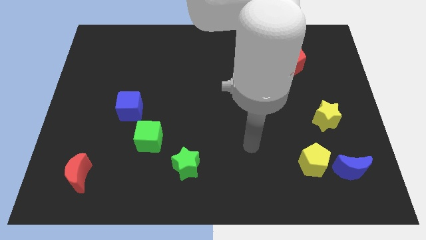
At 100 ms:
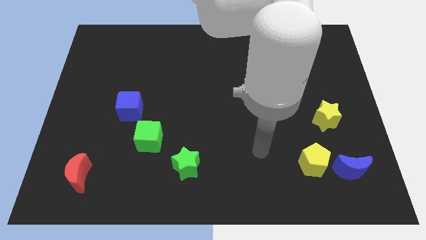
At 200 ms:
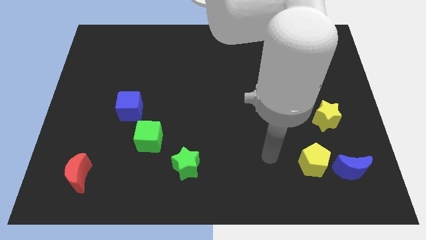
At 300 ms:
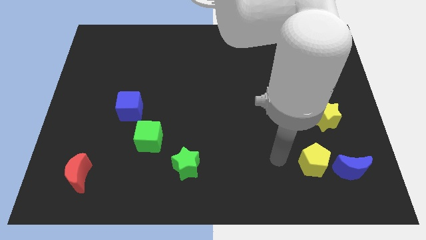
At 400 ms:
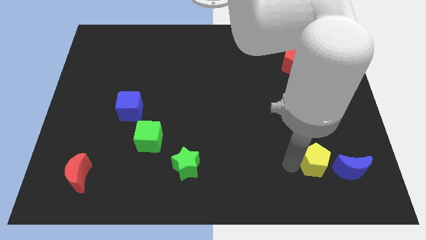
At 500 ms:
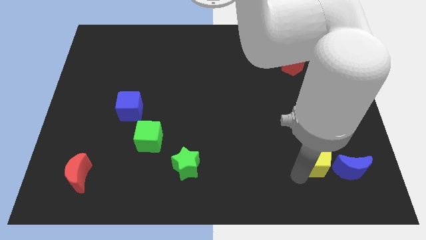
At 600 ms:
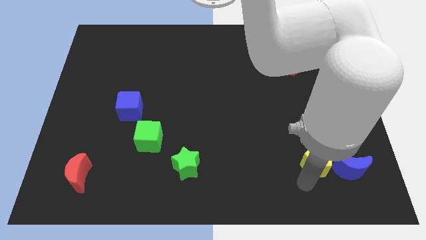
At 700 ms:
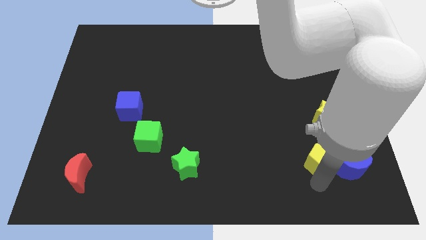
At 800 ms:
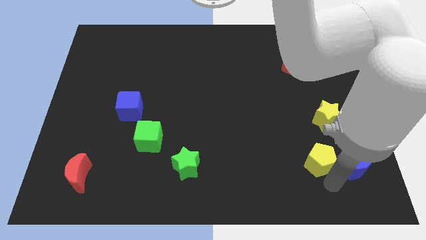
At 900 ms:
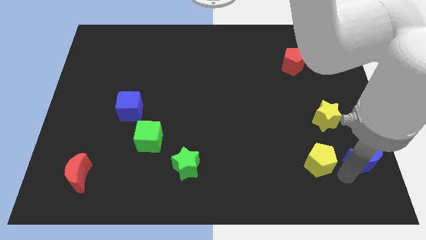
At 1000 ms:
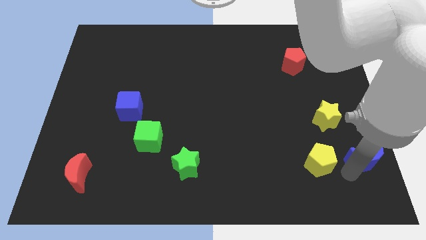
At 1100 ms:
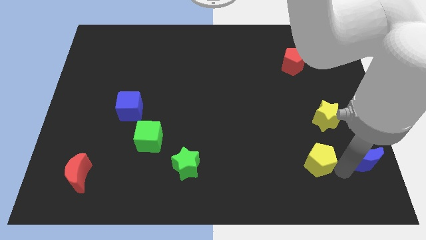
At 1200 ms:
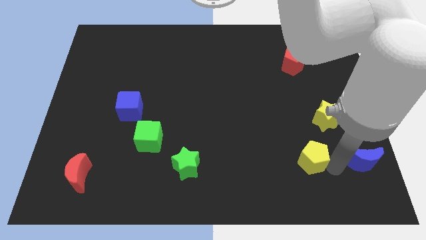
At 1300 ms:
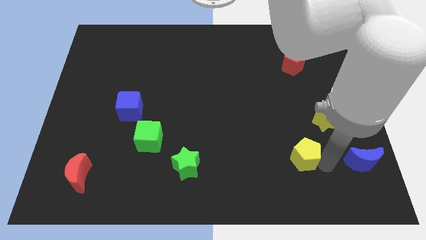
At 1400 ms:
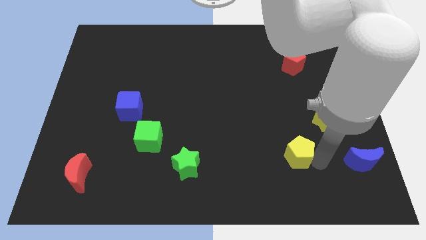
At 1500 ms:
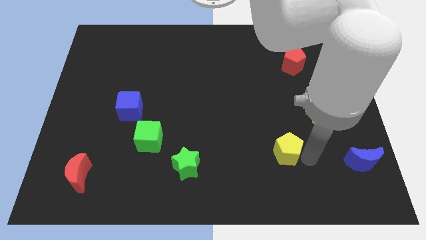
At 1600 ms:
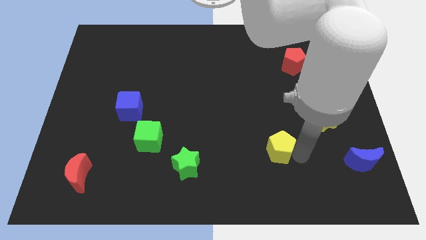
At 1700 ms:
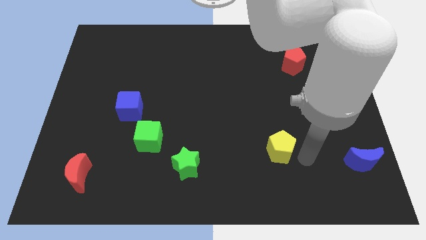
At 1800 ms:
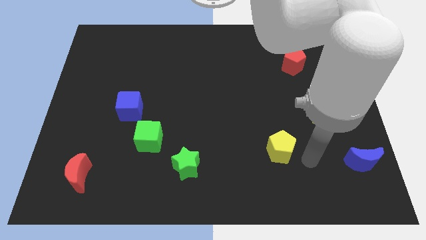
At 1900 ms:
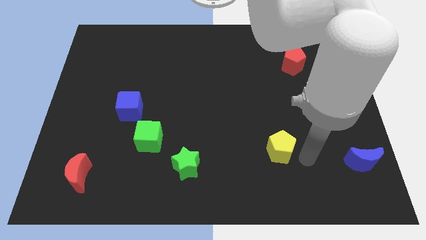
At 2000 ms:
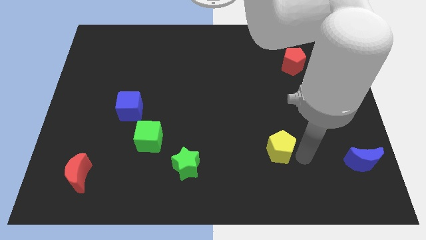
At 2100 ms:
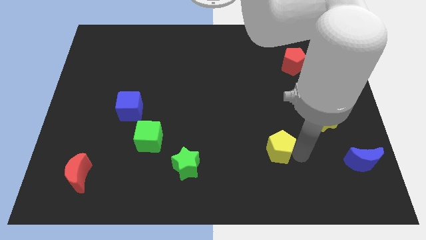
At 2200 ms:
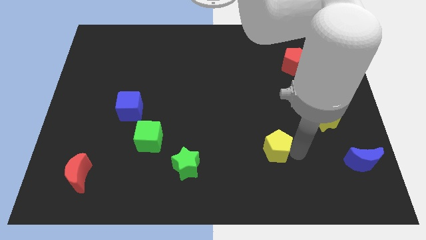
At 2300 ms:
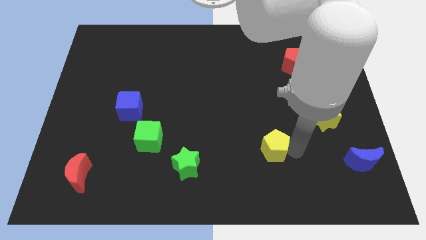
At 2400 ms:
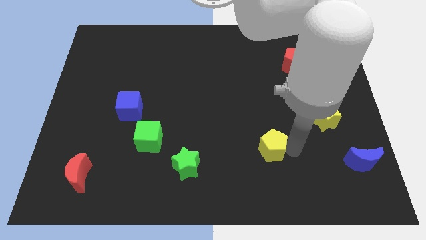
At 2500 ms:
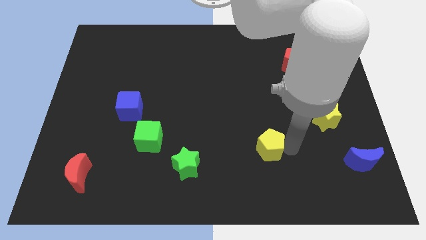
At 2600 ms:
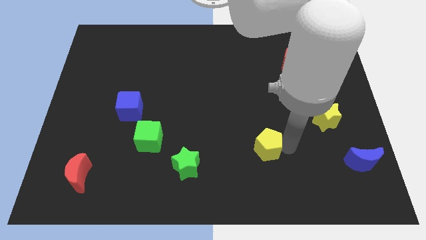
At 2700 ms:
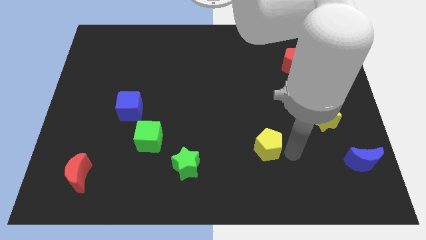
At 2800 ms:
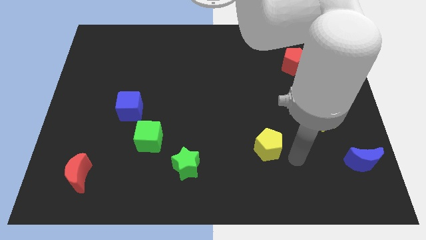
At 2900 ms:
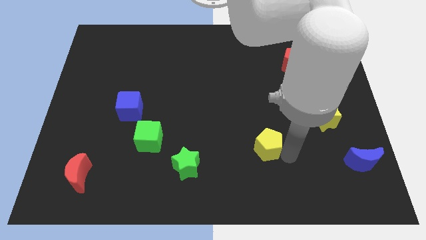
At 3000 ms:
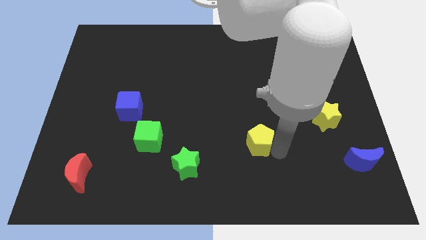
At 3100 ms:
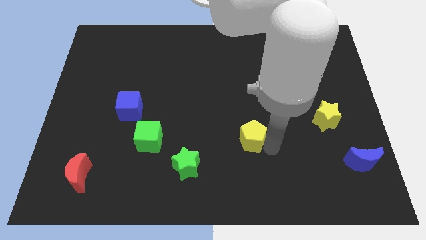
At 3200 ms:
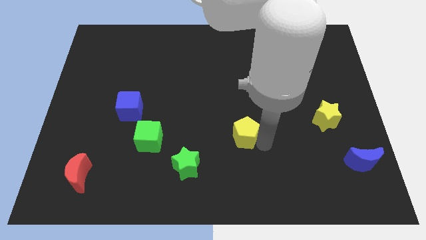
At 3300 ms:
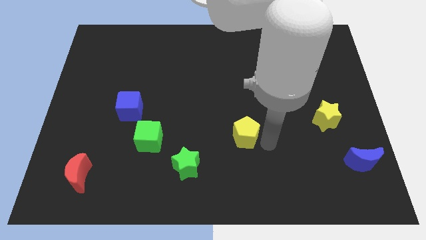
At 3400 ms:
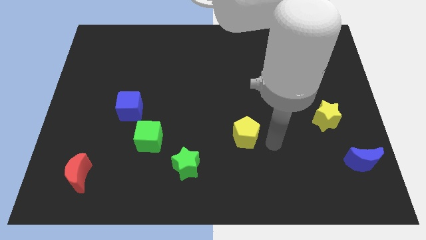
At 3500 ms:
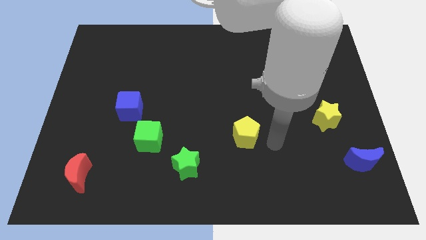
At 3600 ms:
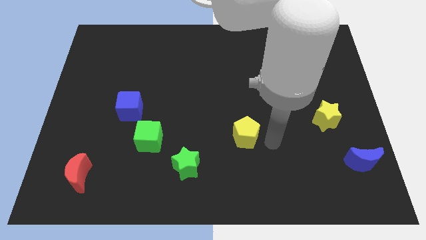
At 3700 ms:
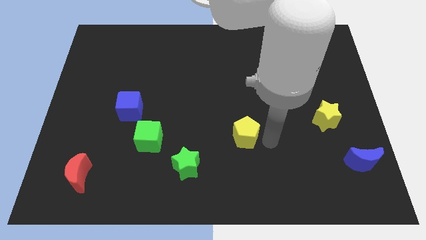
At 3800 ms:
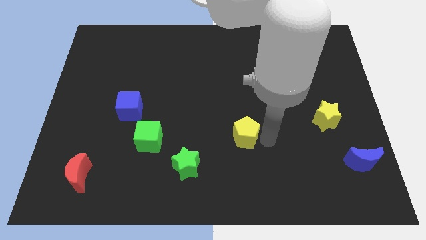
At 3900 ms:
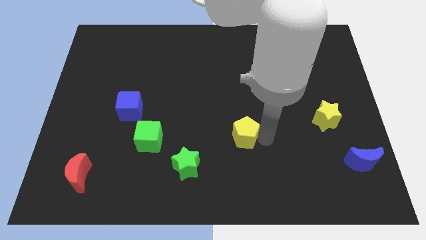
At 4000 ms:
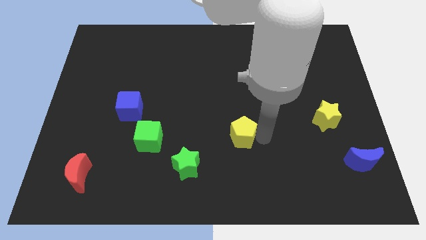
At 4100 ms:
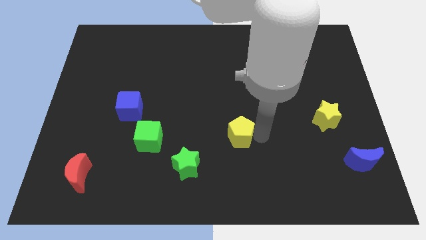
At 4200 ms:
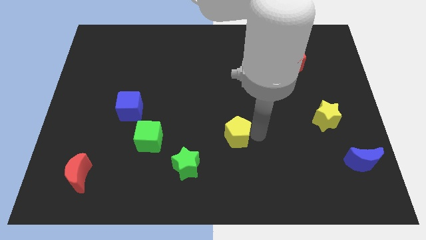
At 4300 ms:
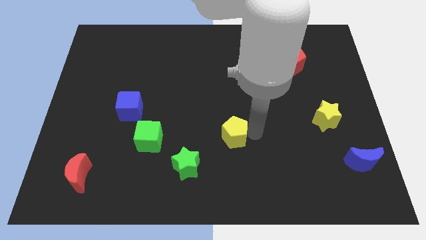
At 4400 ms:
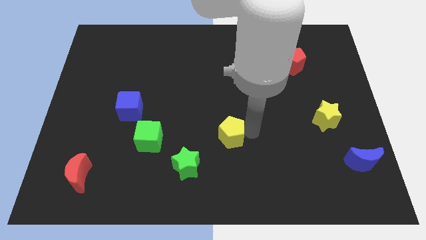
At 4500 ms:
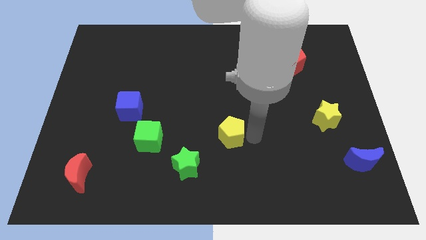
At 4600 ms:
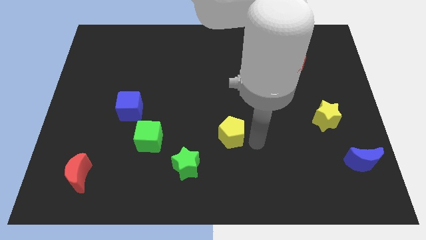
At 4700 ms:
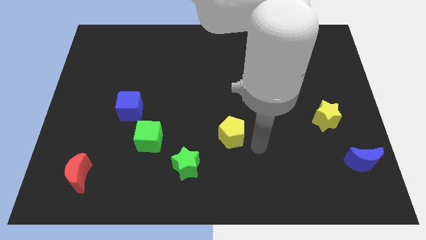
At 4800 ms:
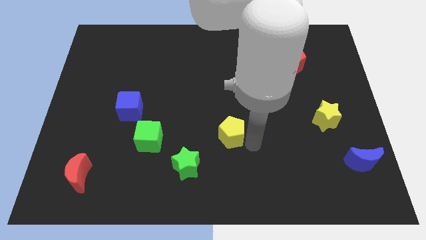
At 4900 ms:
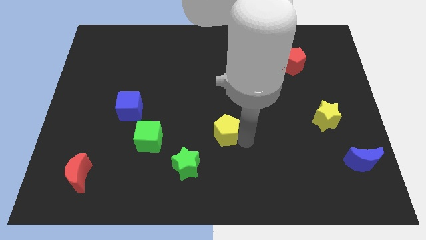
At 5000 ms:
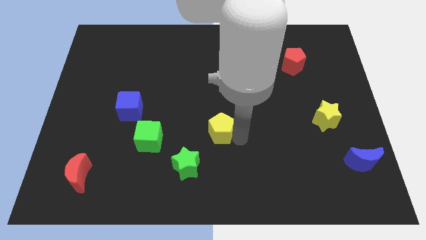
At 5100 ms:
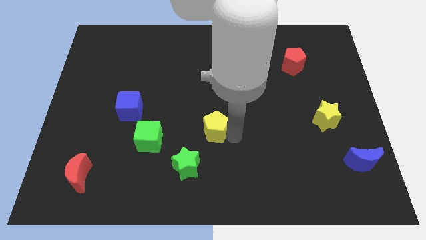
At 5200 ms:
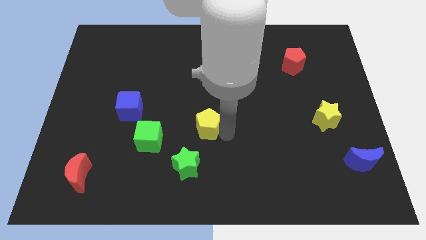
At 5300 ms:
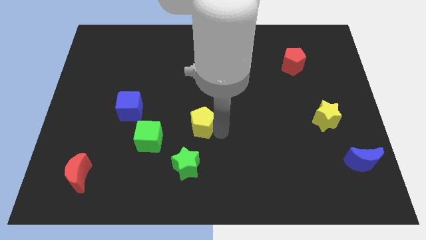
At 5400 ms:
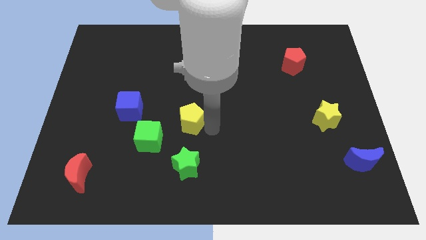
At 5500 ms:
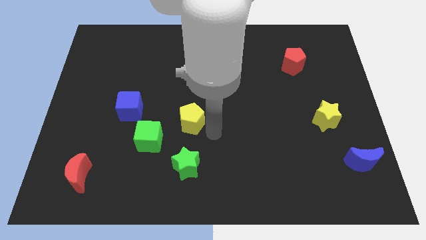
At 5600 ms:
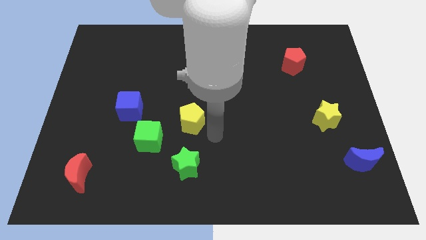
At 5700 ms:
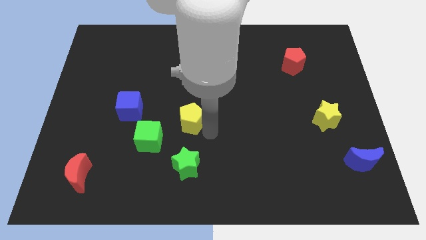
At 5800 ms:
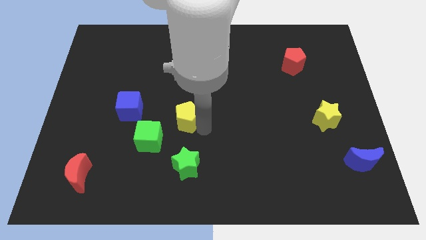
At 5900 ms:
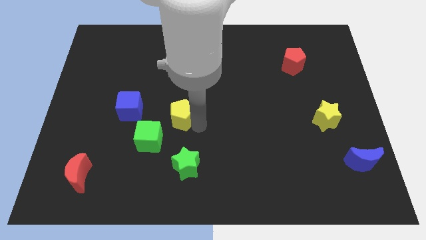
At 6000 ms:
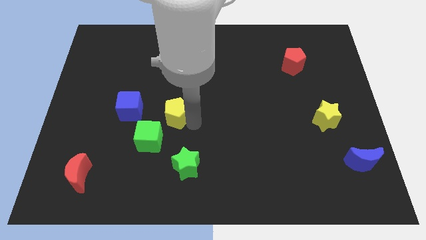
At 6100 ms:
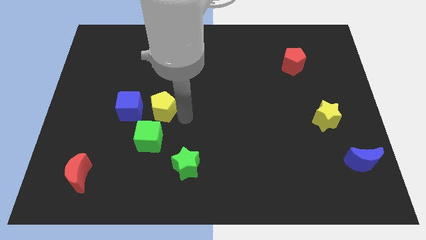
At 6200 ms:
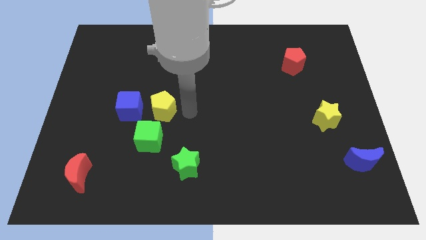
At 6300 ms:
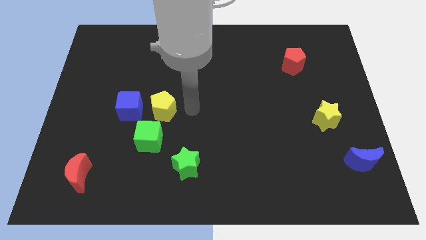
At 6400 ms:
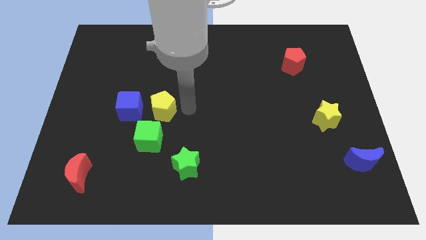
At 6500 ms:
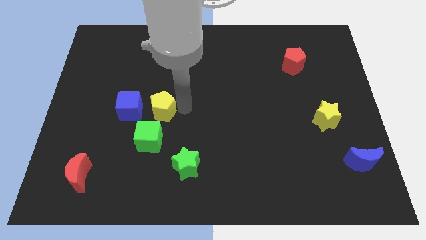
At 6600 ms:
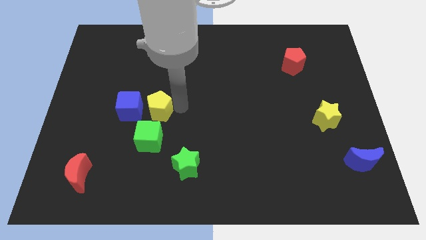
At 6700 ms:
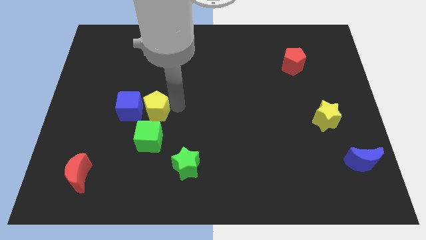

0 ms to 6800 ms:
push the yellow pentagon towards the blue cube
